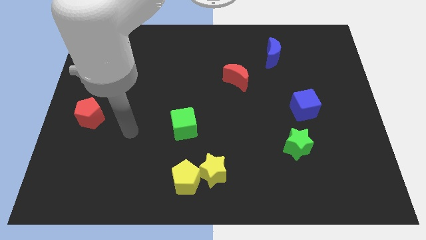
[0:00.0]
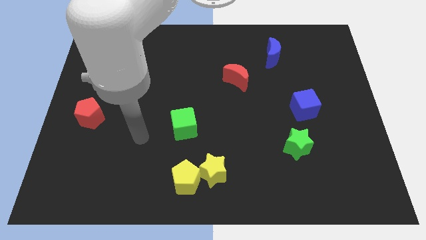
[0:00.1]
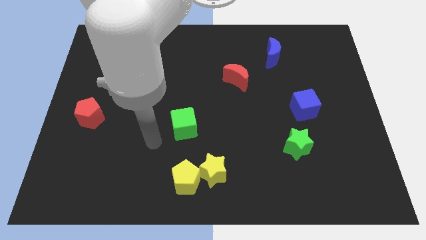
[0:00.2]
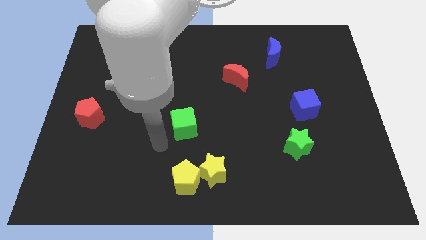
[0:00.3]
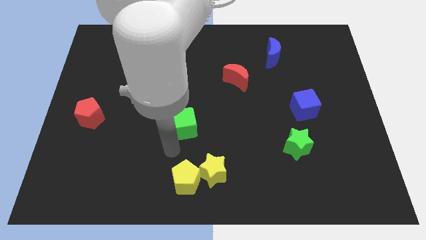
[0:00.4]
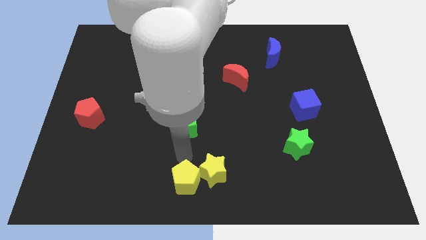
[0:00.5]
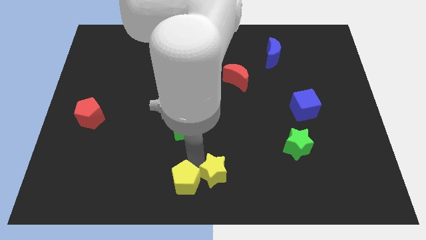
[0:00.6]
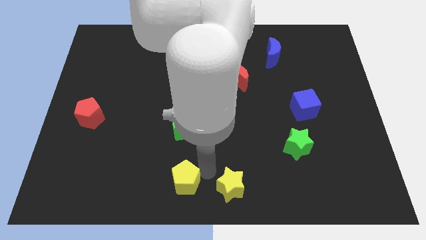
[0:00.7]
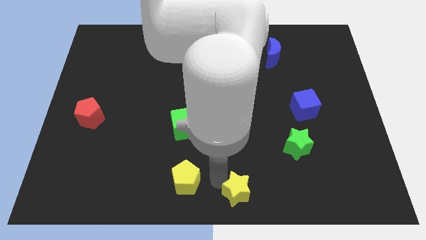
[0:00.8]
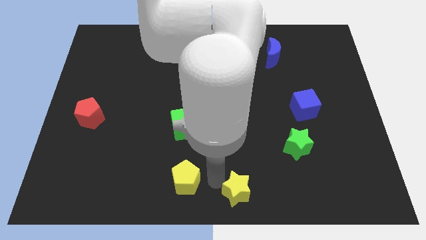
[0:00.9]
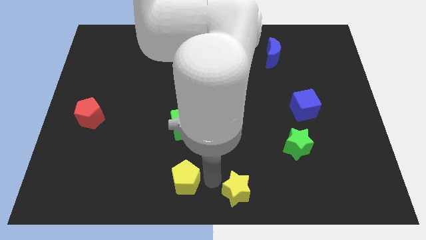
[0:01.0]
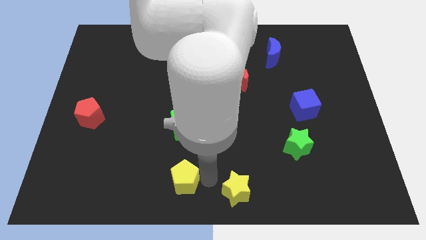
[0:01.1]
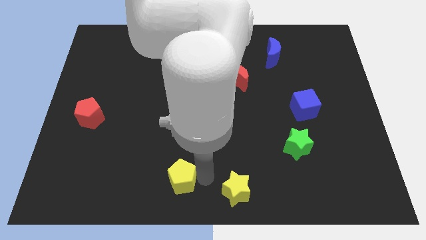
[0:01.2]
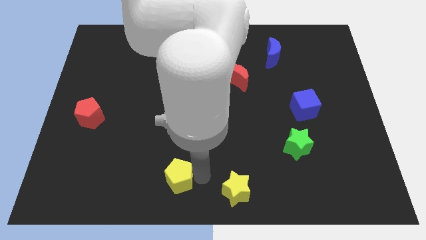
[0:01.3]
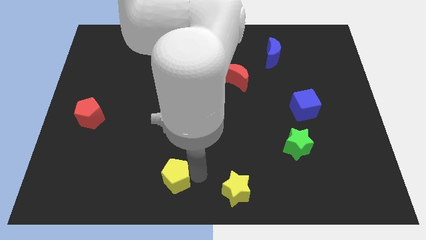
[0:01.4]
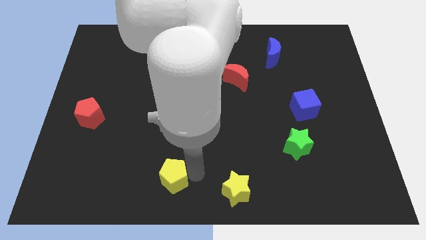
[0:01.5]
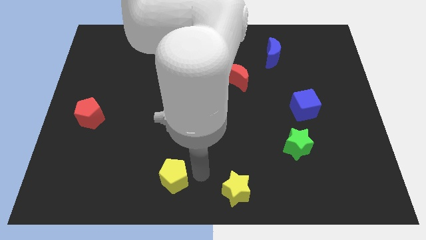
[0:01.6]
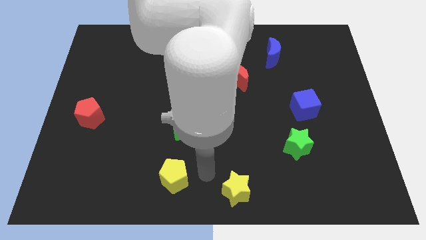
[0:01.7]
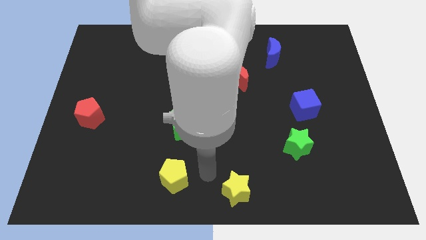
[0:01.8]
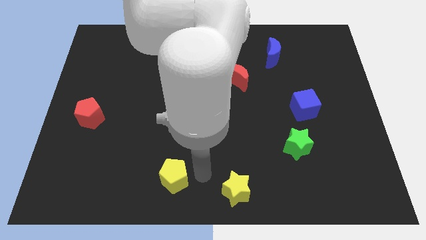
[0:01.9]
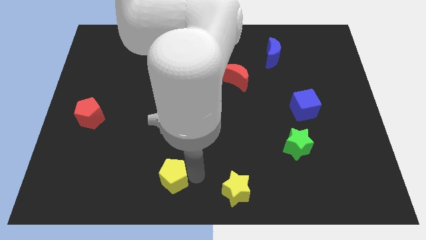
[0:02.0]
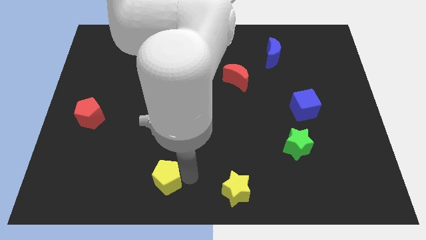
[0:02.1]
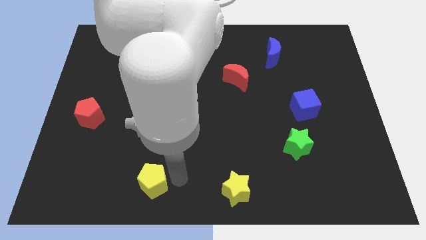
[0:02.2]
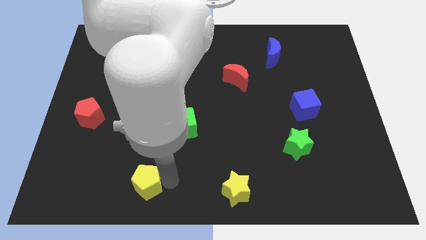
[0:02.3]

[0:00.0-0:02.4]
push the yellow pentagon a little to the left

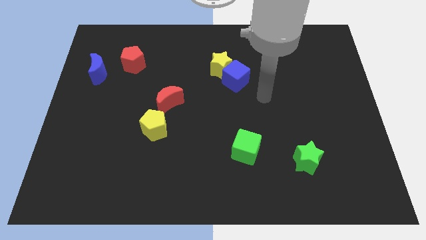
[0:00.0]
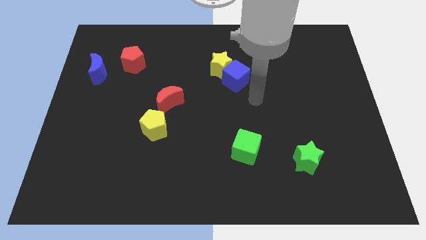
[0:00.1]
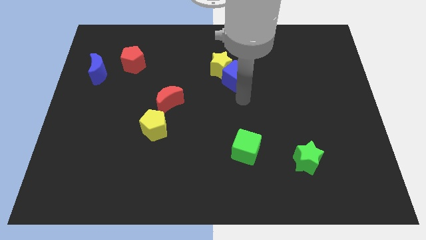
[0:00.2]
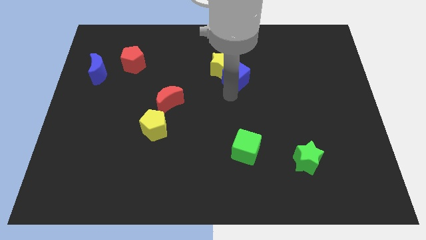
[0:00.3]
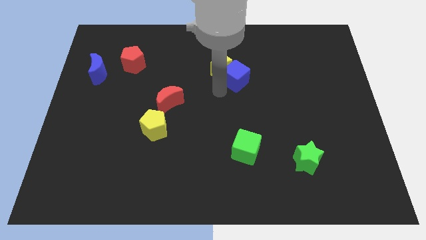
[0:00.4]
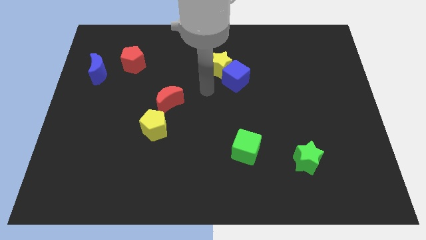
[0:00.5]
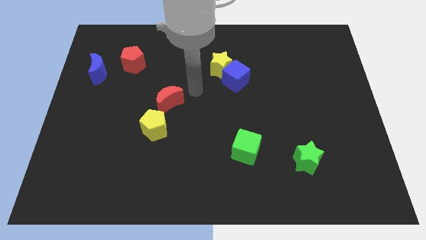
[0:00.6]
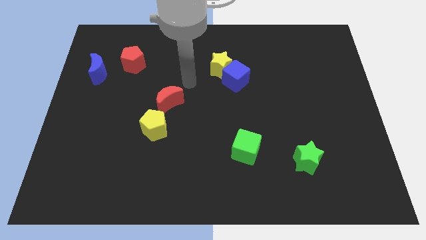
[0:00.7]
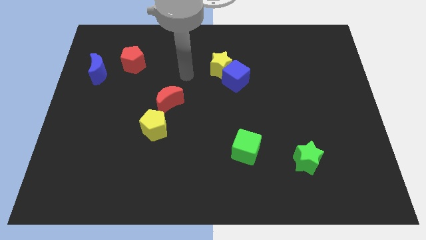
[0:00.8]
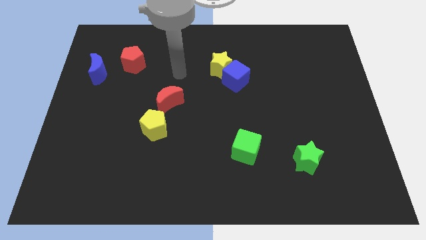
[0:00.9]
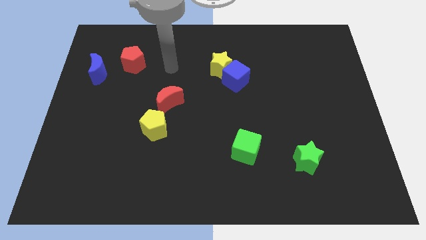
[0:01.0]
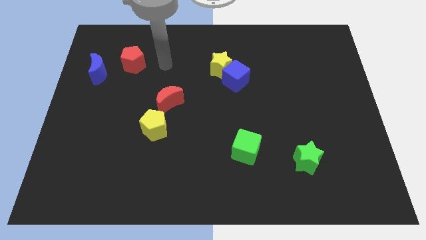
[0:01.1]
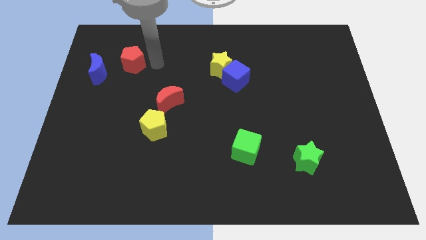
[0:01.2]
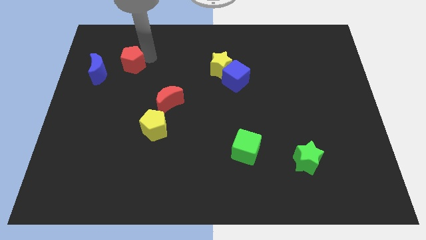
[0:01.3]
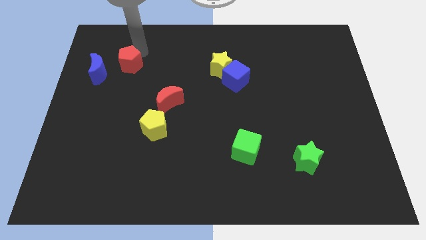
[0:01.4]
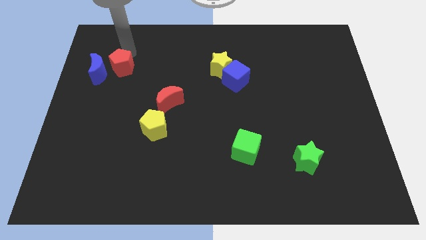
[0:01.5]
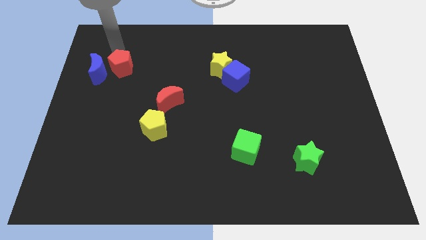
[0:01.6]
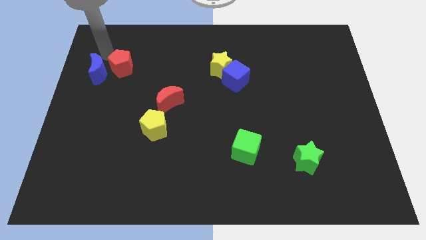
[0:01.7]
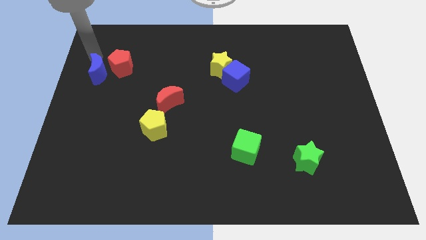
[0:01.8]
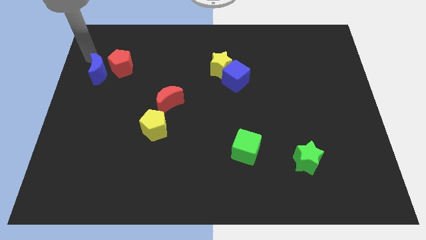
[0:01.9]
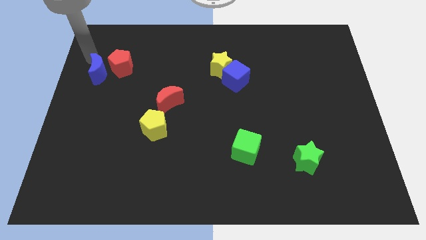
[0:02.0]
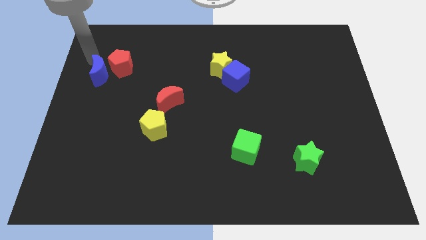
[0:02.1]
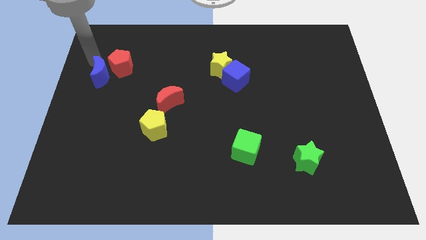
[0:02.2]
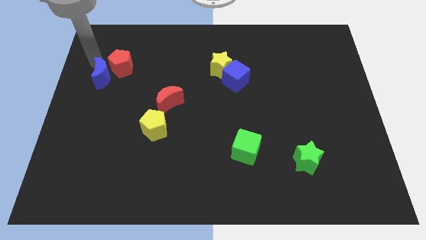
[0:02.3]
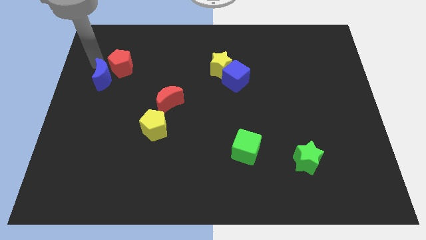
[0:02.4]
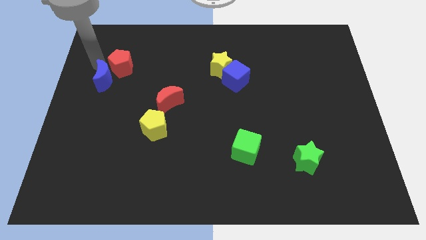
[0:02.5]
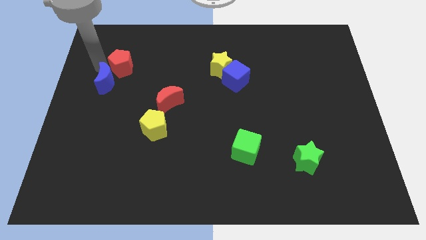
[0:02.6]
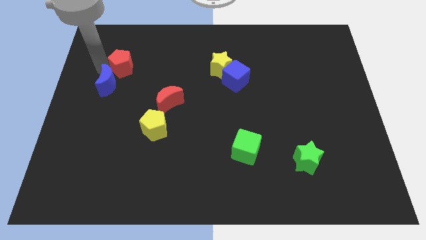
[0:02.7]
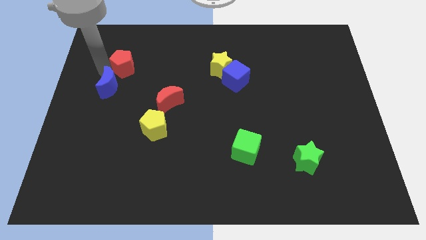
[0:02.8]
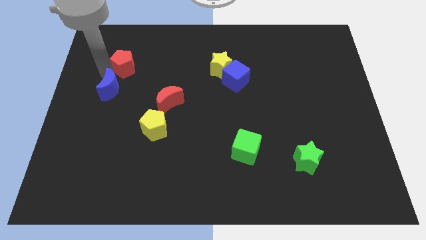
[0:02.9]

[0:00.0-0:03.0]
push the blue moon a bit downwards and to the right

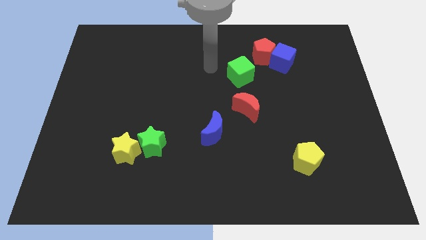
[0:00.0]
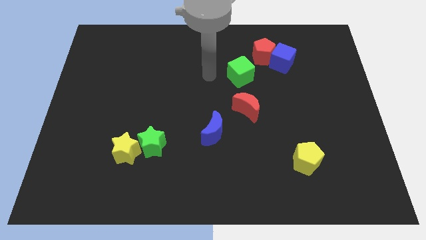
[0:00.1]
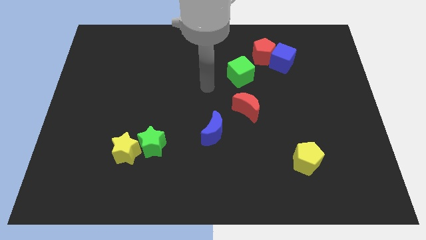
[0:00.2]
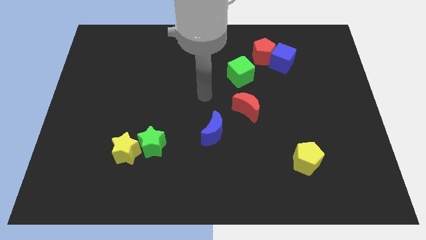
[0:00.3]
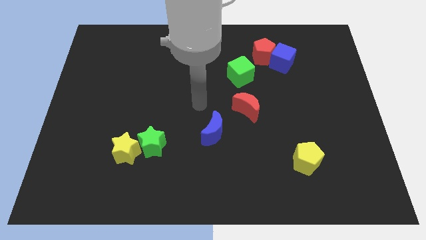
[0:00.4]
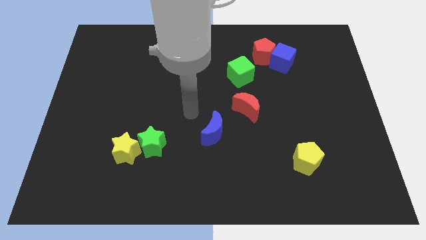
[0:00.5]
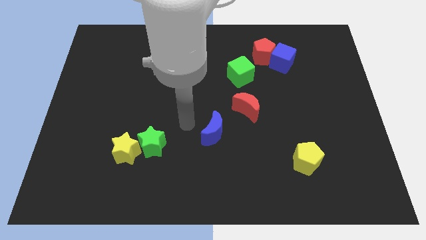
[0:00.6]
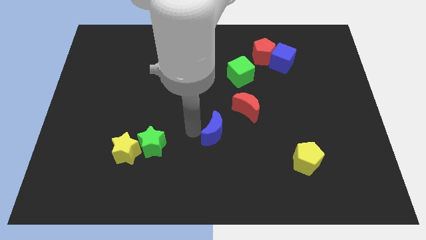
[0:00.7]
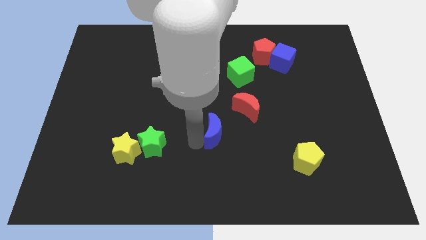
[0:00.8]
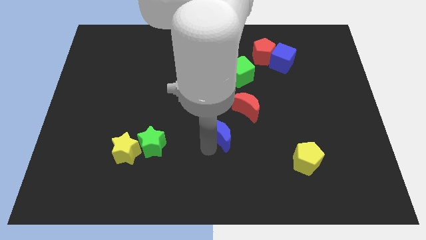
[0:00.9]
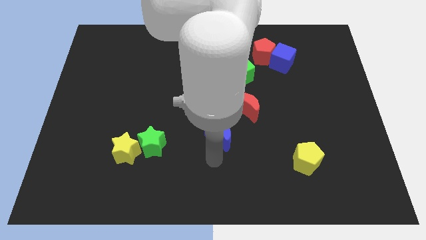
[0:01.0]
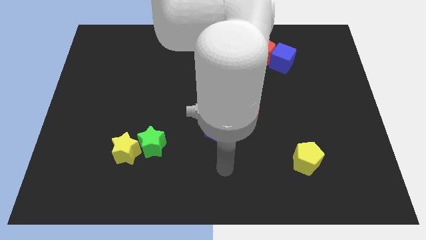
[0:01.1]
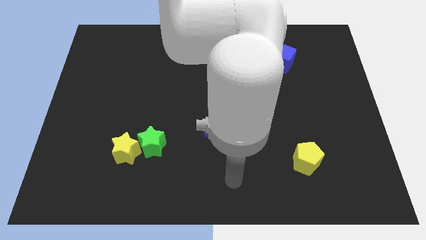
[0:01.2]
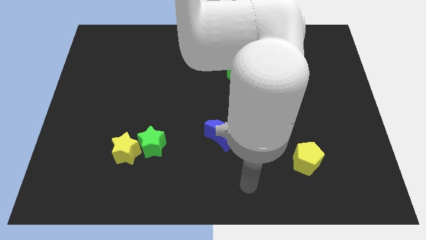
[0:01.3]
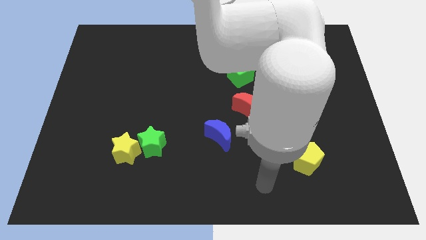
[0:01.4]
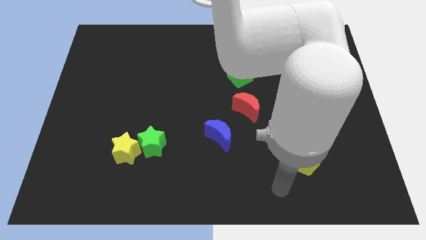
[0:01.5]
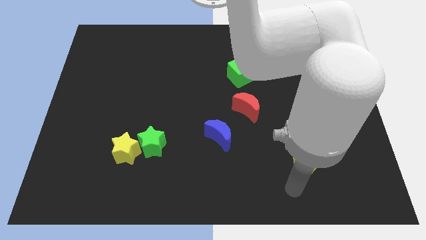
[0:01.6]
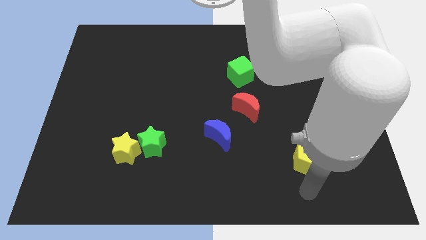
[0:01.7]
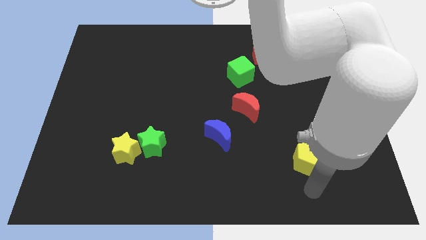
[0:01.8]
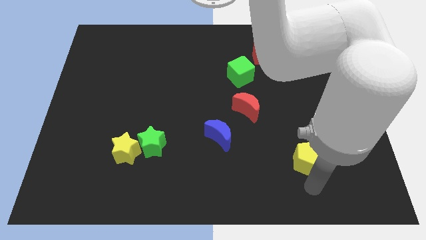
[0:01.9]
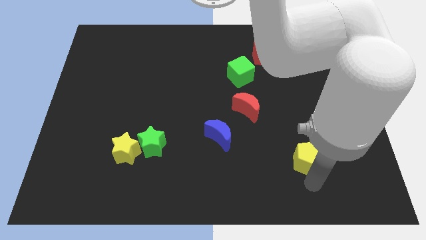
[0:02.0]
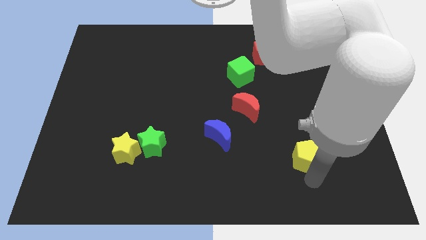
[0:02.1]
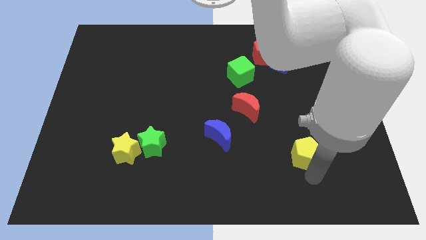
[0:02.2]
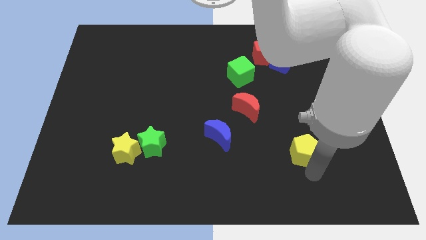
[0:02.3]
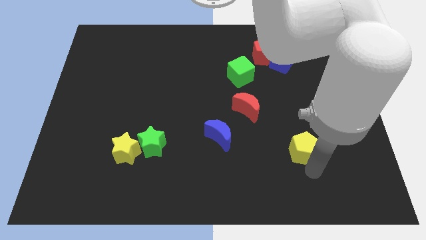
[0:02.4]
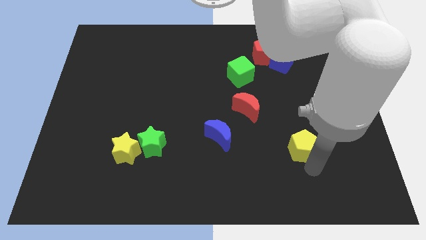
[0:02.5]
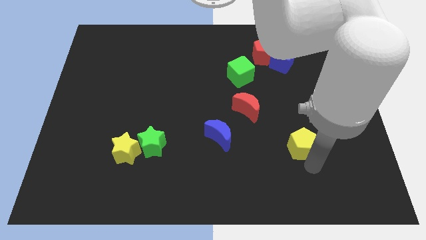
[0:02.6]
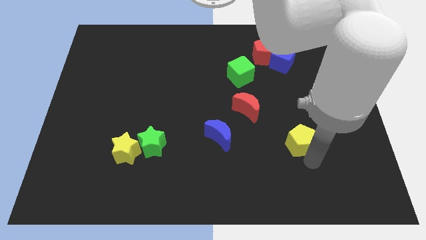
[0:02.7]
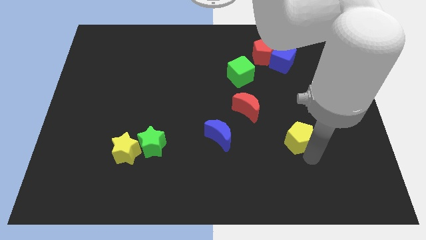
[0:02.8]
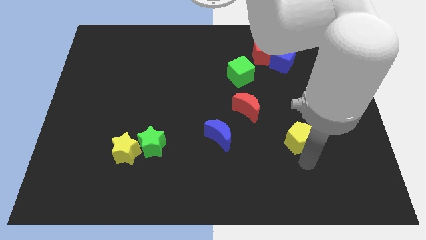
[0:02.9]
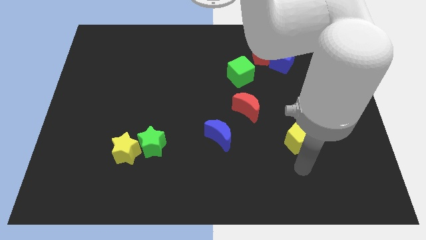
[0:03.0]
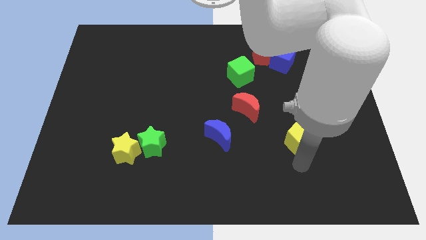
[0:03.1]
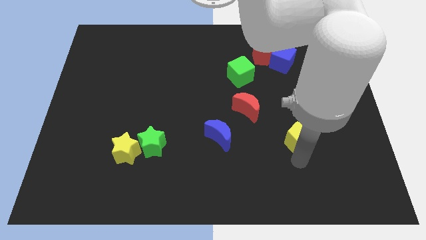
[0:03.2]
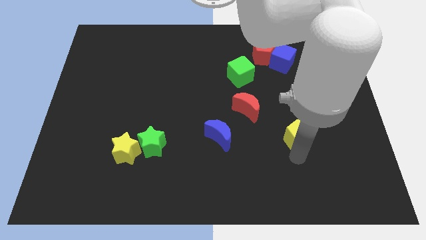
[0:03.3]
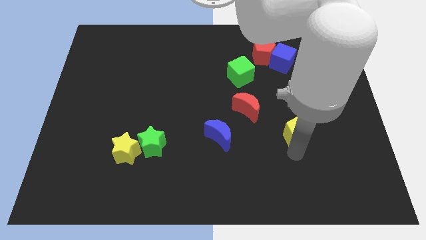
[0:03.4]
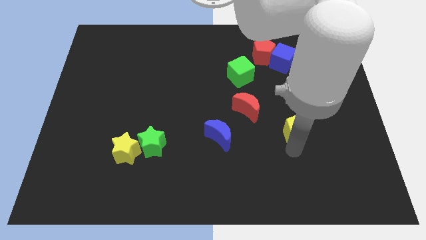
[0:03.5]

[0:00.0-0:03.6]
push the yellow pentagon a bit up
